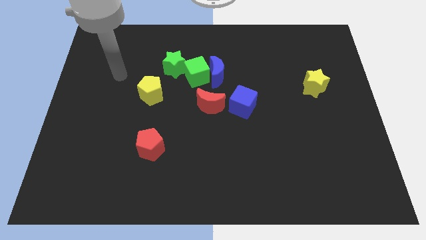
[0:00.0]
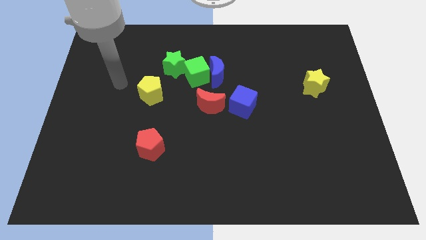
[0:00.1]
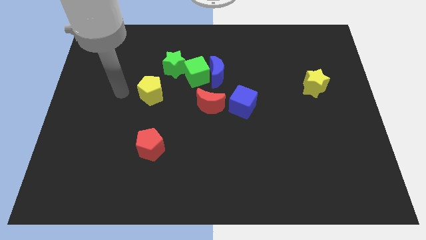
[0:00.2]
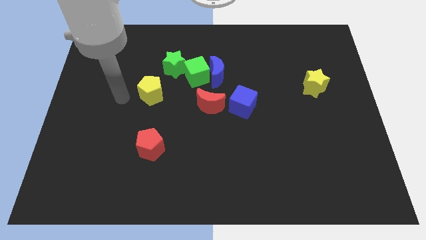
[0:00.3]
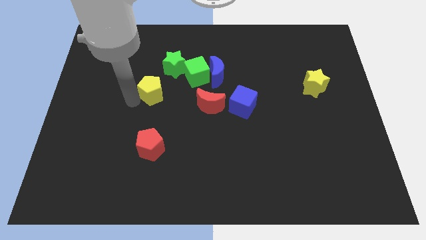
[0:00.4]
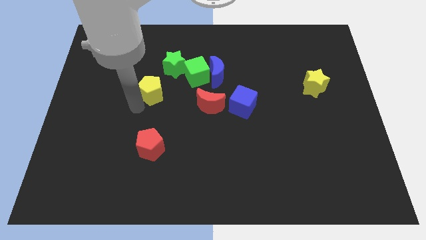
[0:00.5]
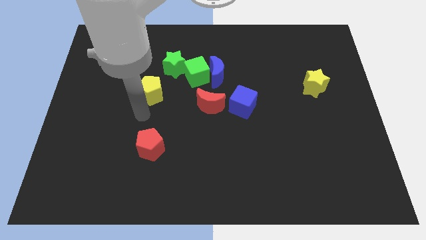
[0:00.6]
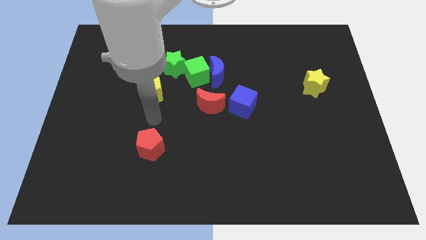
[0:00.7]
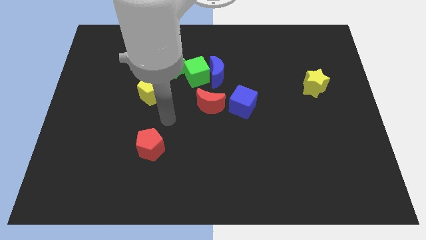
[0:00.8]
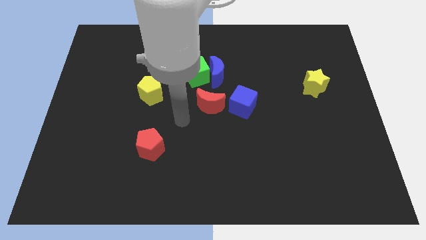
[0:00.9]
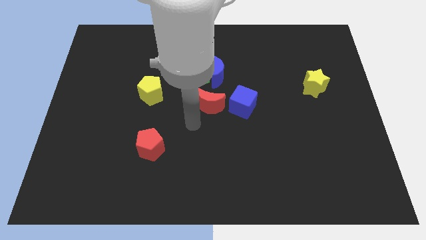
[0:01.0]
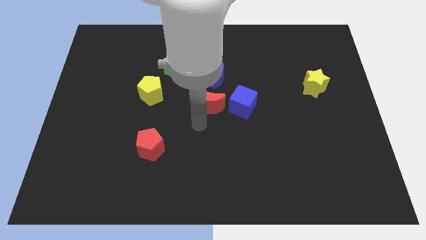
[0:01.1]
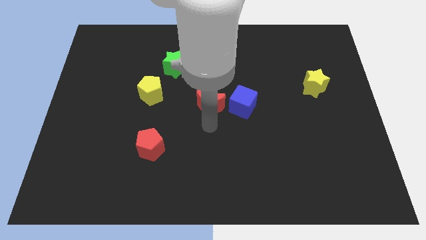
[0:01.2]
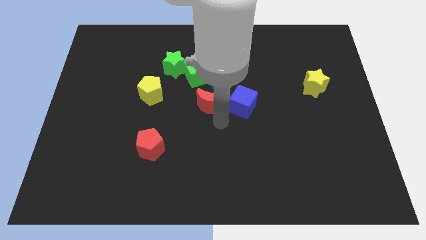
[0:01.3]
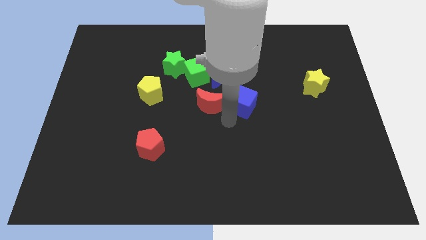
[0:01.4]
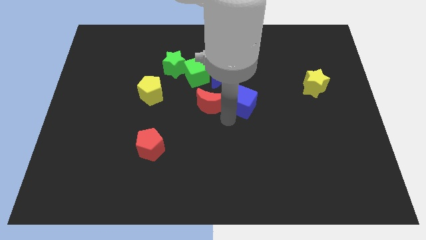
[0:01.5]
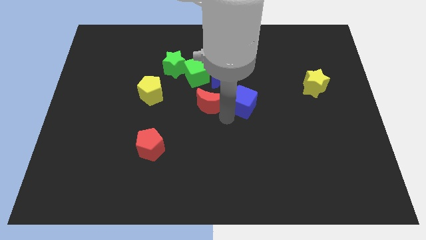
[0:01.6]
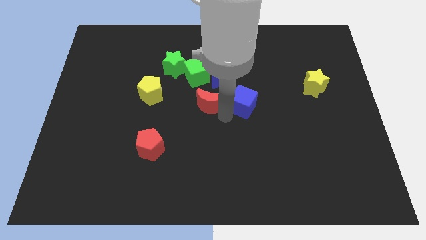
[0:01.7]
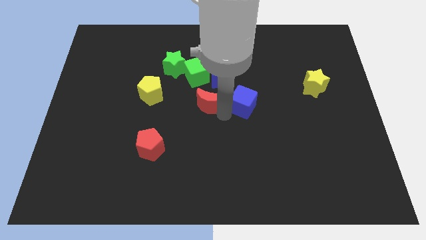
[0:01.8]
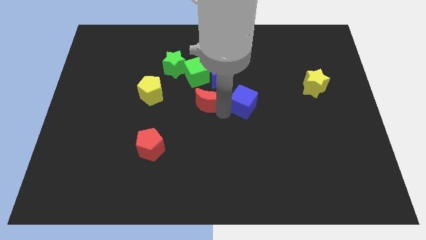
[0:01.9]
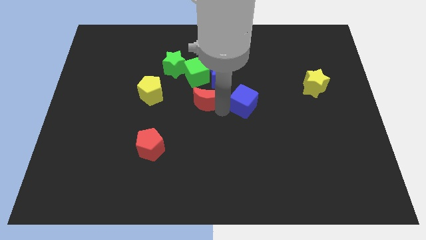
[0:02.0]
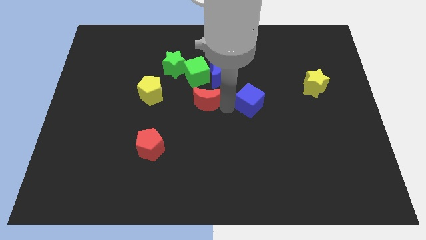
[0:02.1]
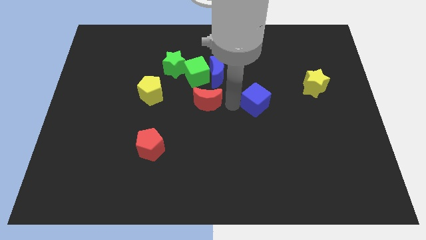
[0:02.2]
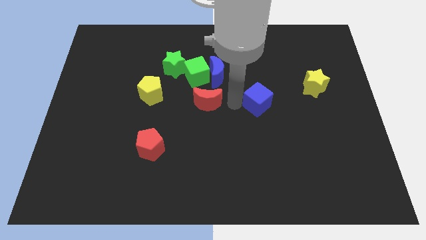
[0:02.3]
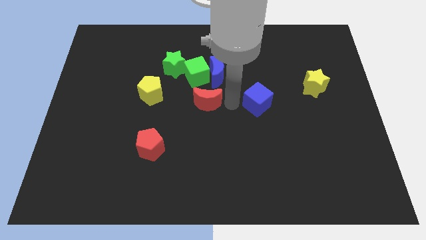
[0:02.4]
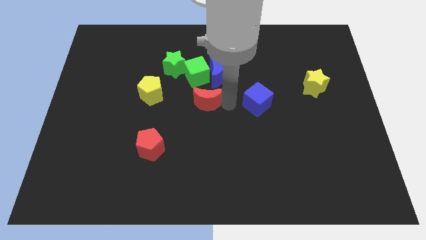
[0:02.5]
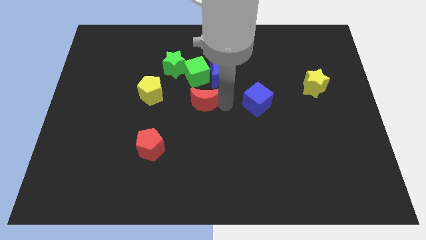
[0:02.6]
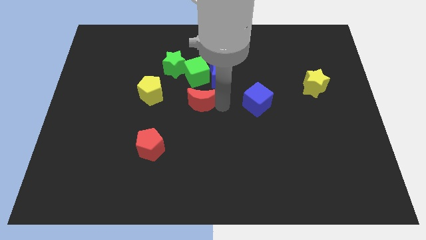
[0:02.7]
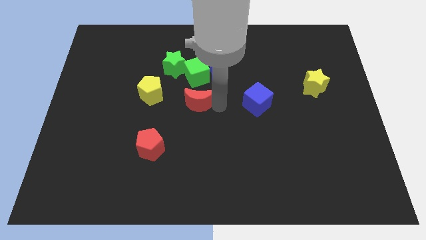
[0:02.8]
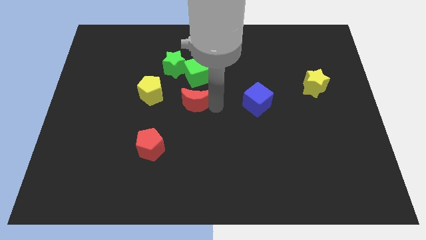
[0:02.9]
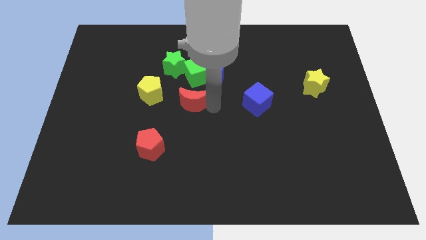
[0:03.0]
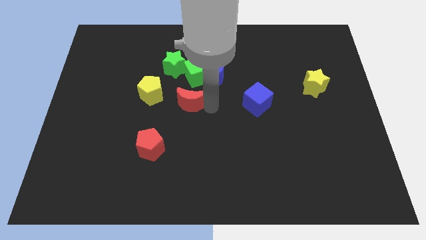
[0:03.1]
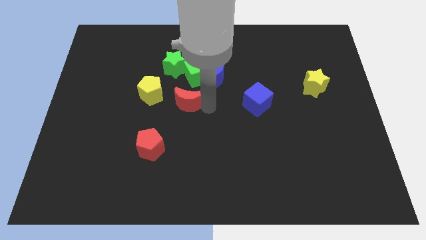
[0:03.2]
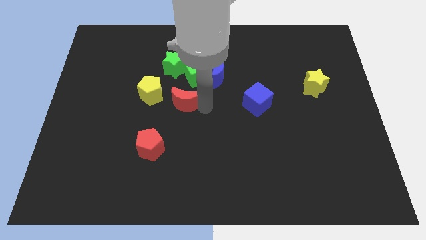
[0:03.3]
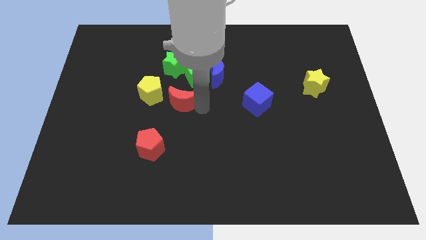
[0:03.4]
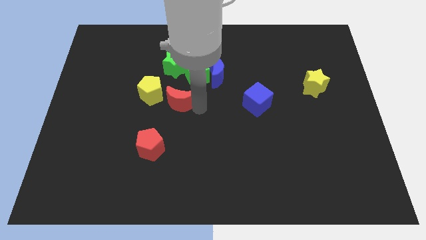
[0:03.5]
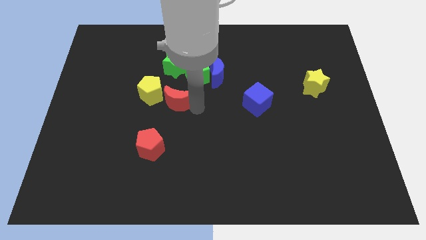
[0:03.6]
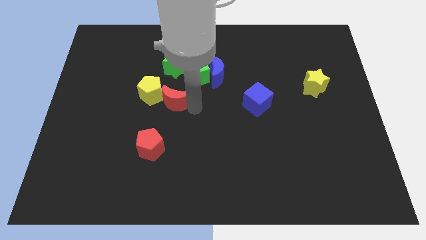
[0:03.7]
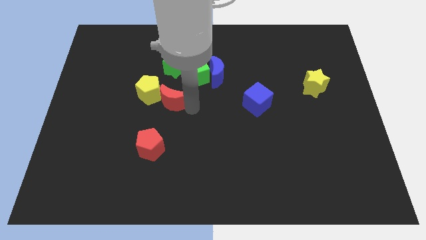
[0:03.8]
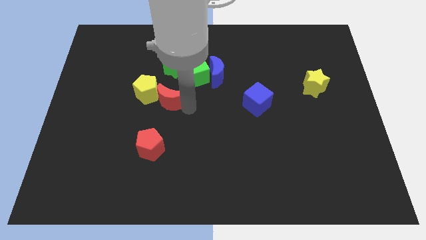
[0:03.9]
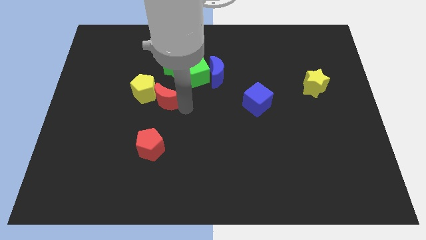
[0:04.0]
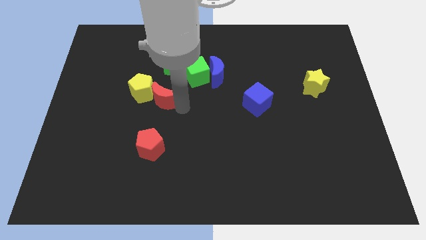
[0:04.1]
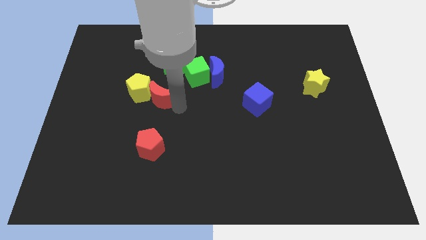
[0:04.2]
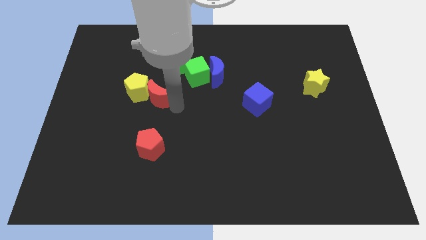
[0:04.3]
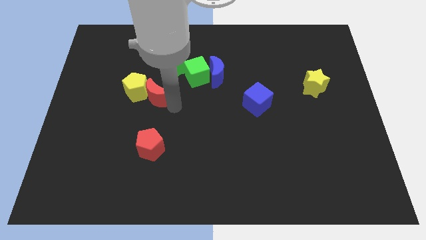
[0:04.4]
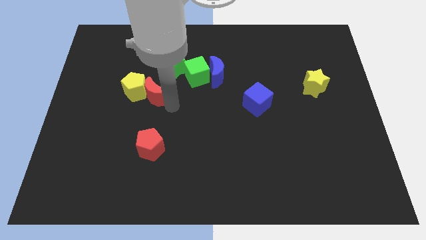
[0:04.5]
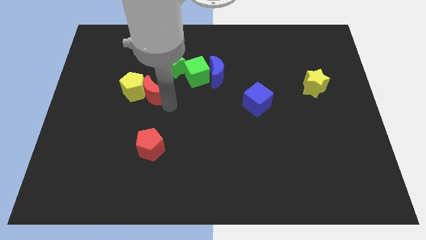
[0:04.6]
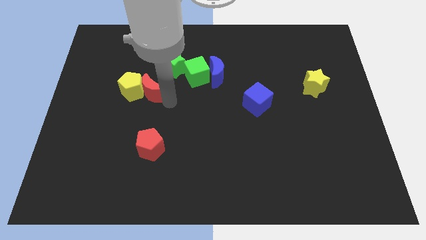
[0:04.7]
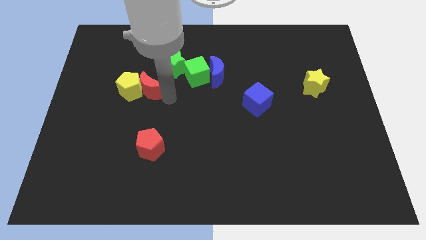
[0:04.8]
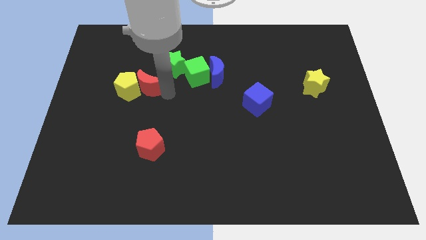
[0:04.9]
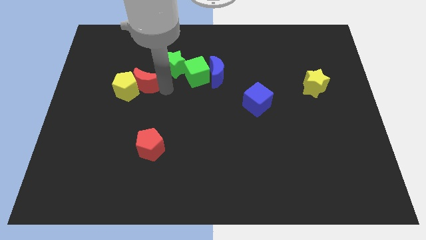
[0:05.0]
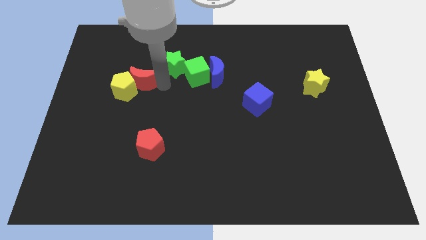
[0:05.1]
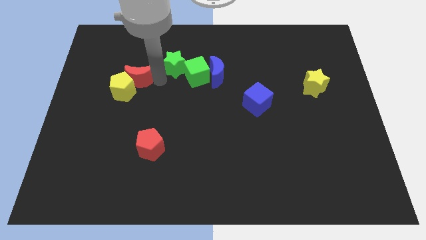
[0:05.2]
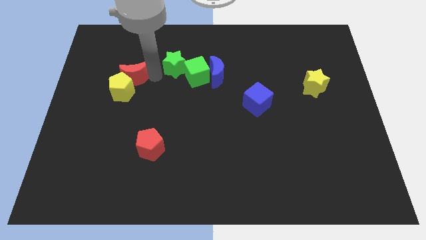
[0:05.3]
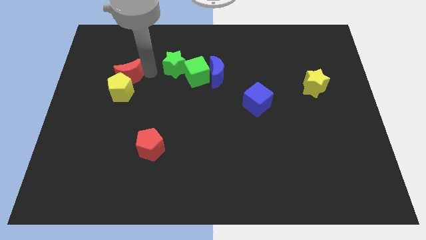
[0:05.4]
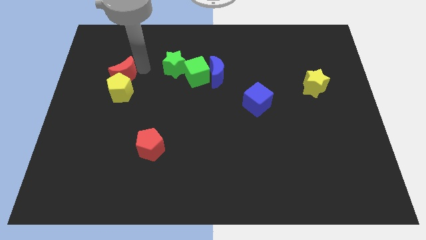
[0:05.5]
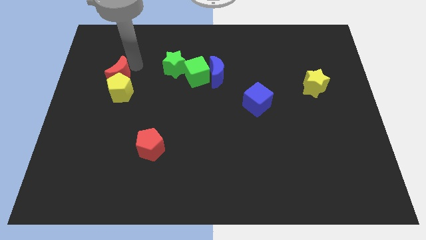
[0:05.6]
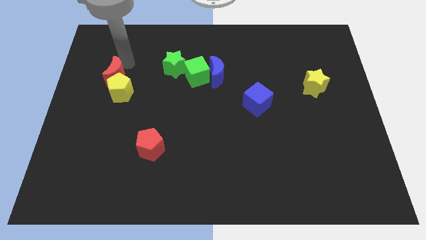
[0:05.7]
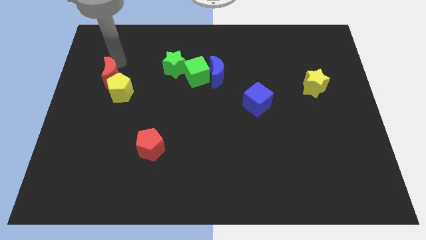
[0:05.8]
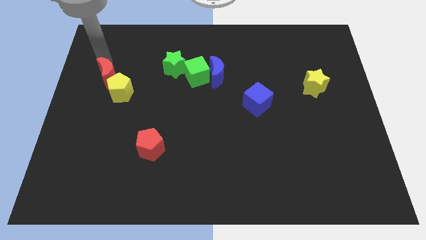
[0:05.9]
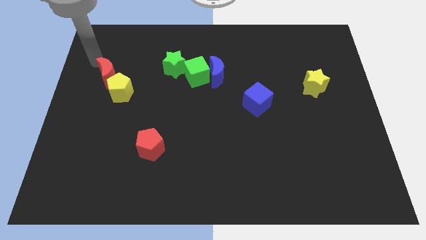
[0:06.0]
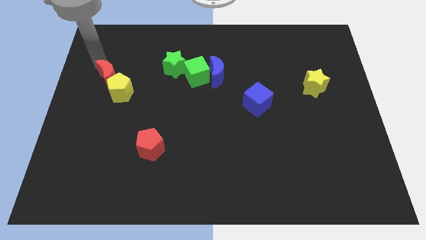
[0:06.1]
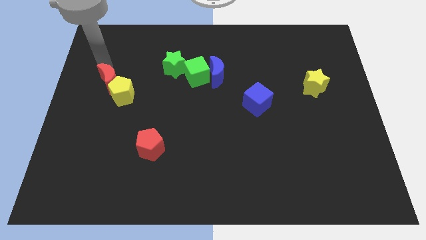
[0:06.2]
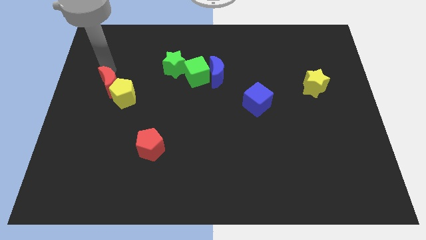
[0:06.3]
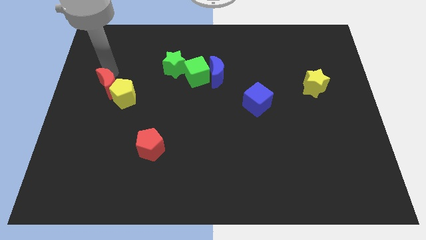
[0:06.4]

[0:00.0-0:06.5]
slide the red moon to the left side
